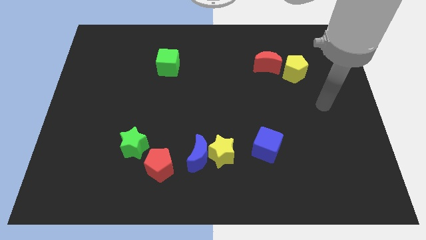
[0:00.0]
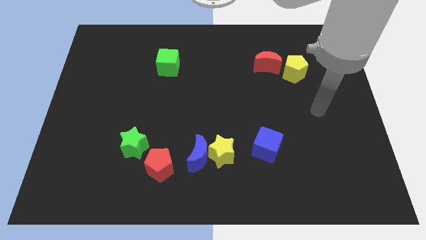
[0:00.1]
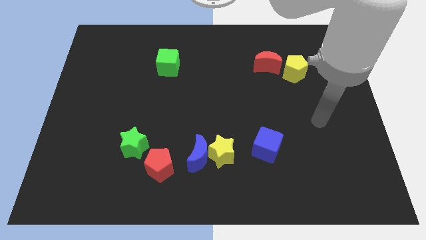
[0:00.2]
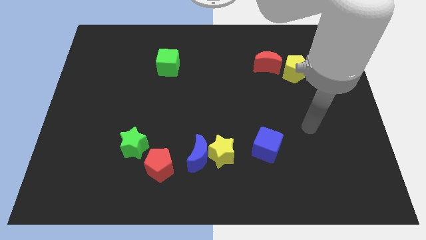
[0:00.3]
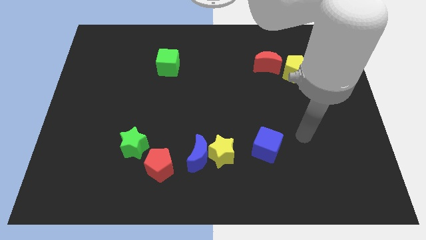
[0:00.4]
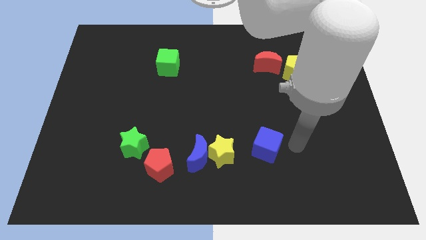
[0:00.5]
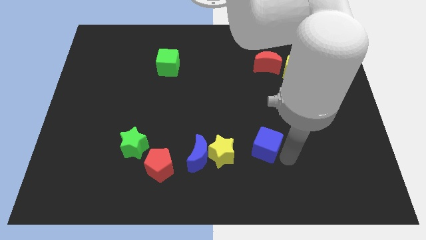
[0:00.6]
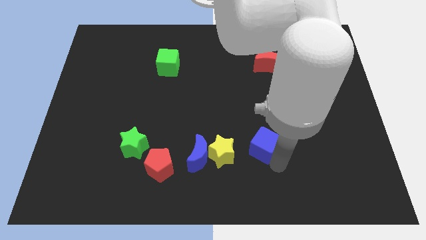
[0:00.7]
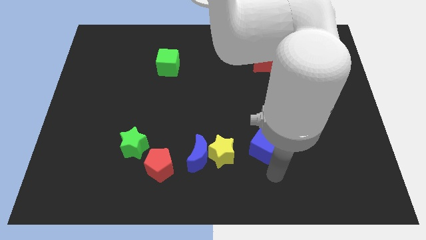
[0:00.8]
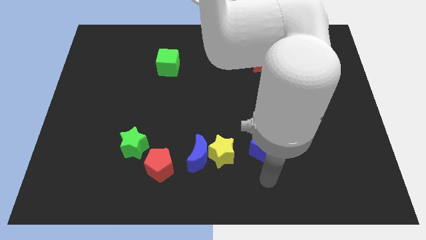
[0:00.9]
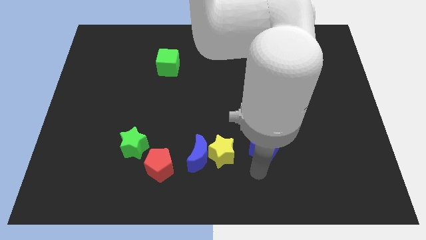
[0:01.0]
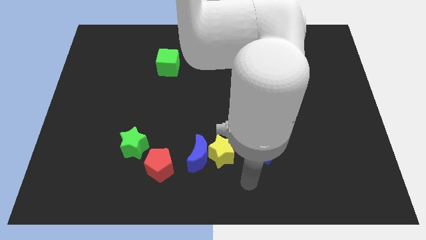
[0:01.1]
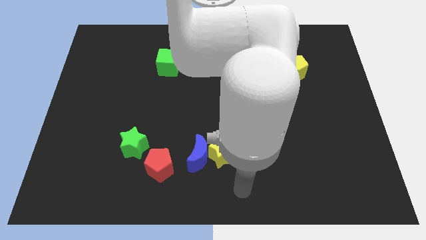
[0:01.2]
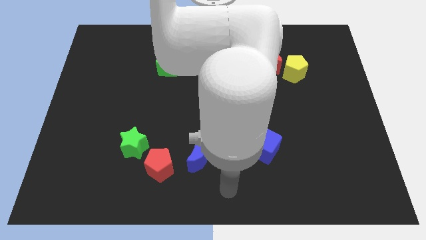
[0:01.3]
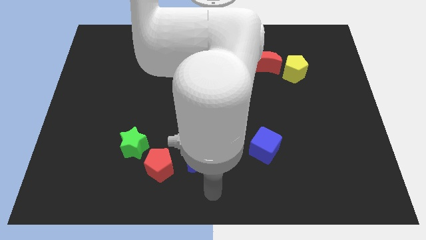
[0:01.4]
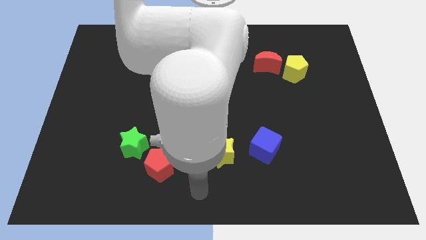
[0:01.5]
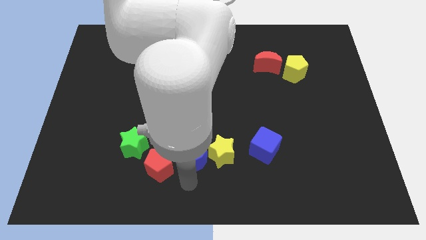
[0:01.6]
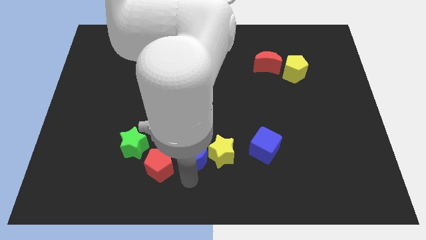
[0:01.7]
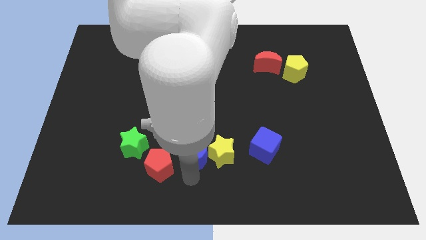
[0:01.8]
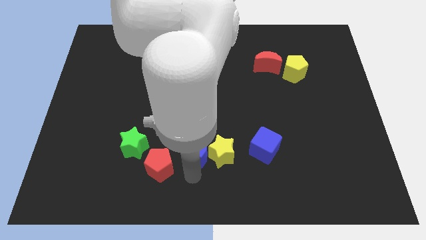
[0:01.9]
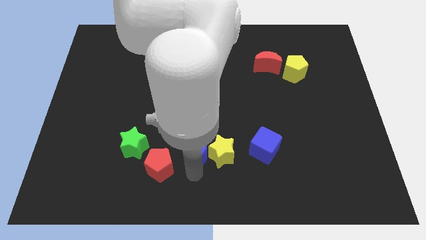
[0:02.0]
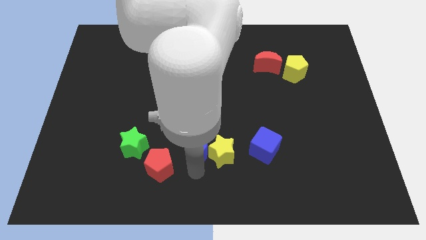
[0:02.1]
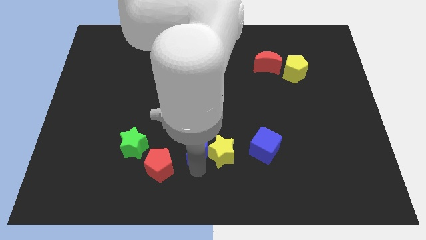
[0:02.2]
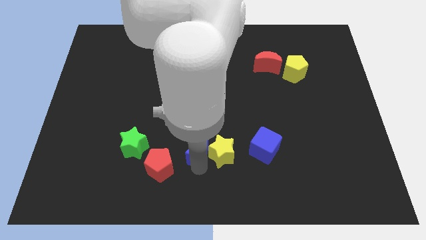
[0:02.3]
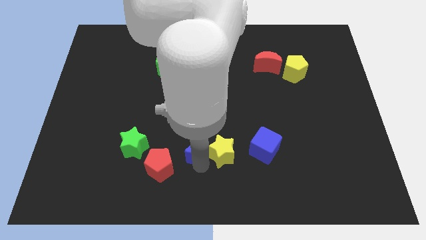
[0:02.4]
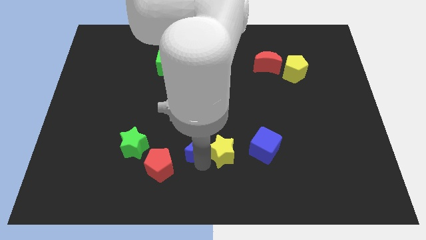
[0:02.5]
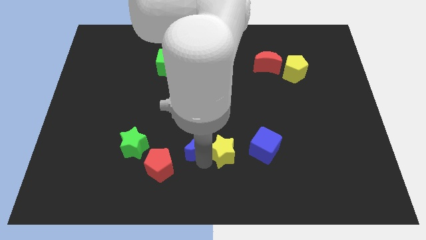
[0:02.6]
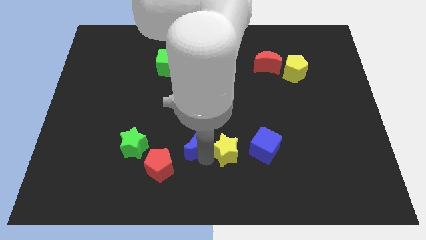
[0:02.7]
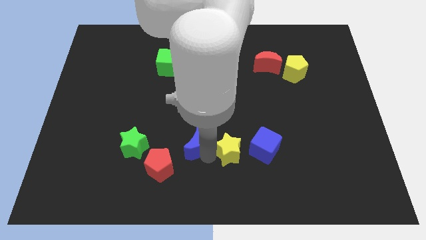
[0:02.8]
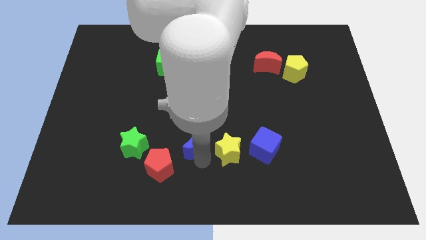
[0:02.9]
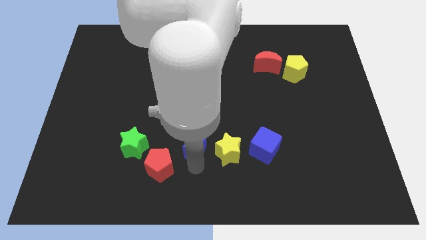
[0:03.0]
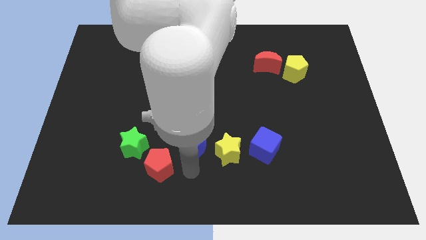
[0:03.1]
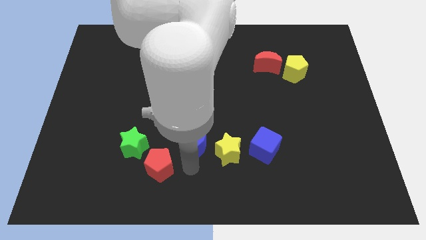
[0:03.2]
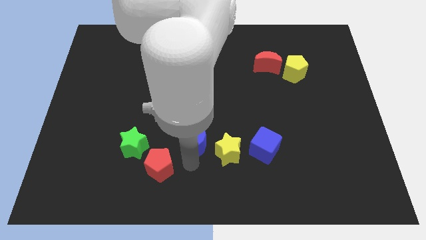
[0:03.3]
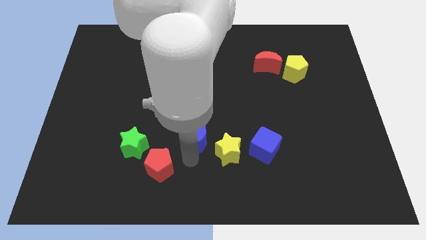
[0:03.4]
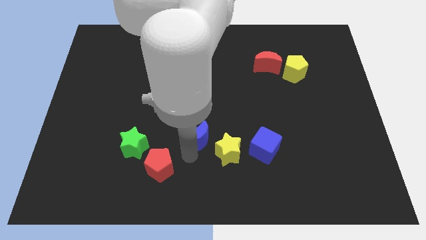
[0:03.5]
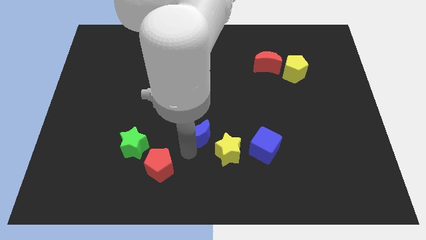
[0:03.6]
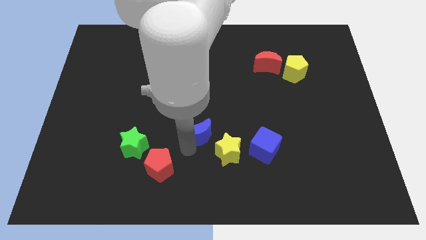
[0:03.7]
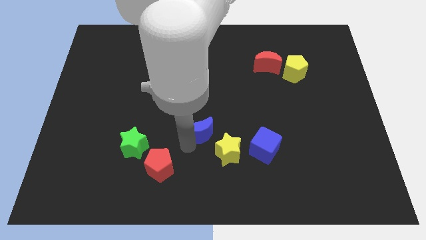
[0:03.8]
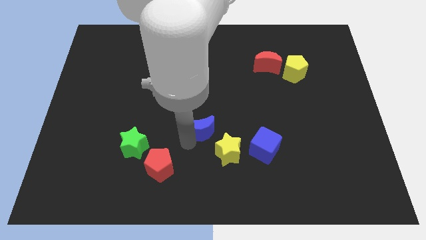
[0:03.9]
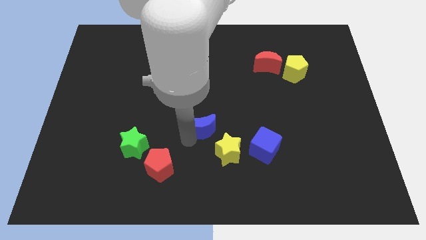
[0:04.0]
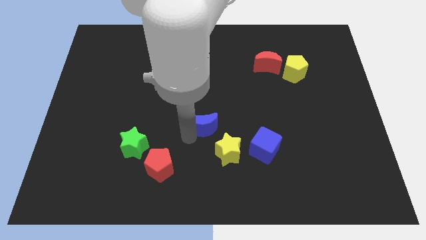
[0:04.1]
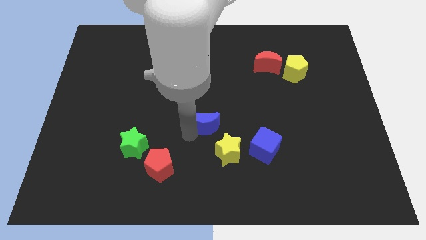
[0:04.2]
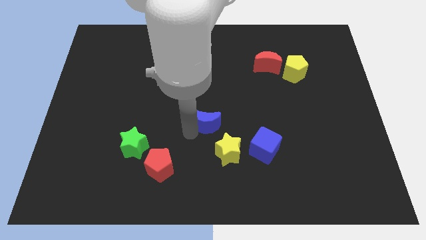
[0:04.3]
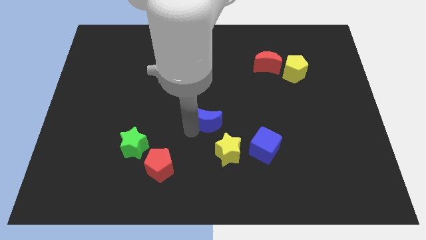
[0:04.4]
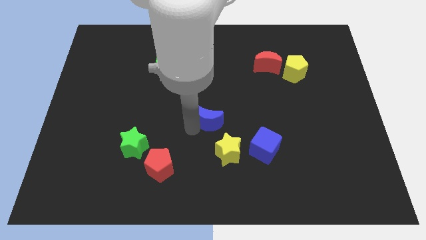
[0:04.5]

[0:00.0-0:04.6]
separate the blue moon from the yellow star and red pentagon

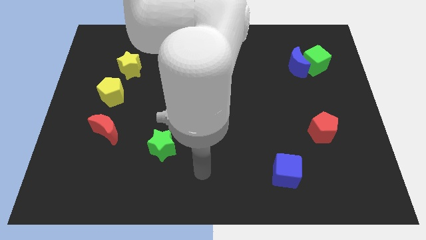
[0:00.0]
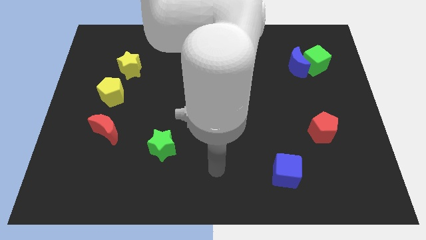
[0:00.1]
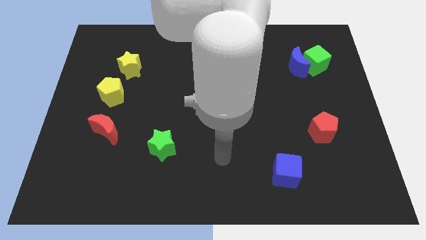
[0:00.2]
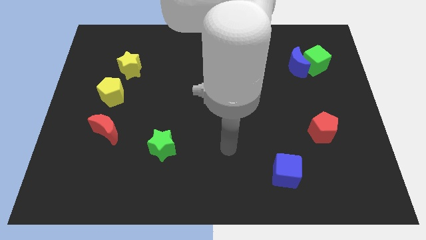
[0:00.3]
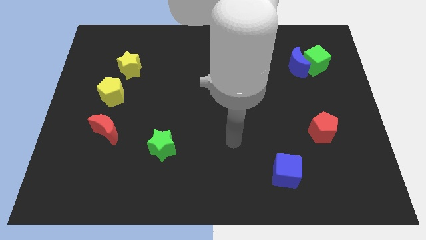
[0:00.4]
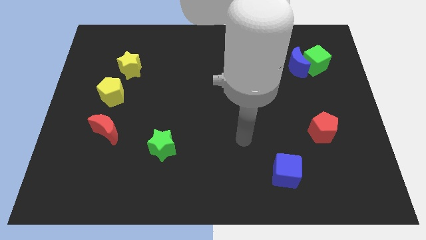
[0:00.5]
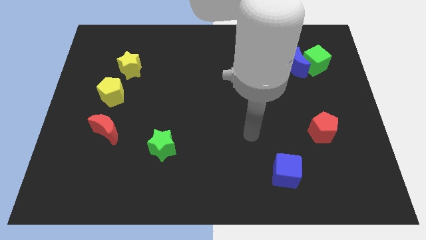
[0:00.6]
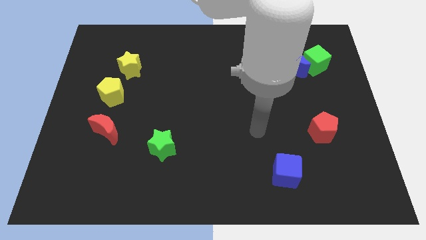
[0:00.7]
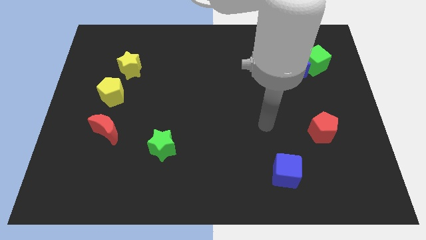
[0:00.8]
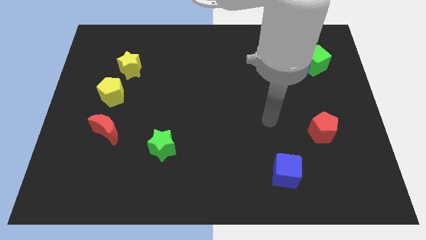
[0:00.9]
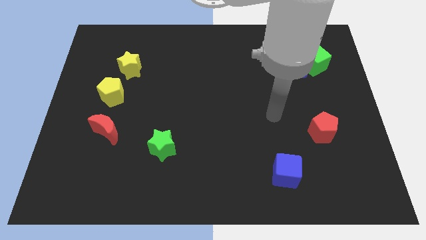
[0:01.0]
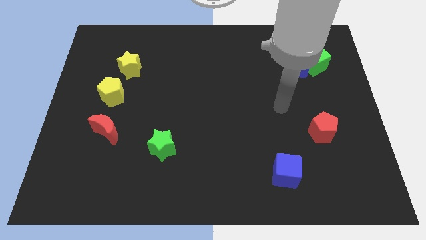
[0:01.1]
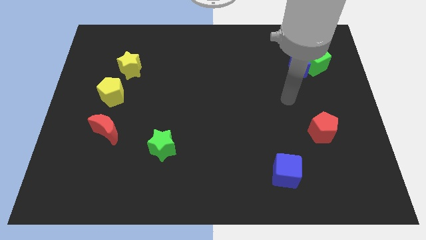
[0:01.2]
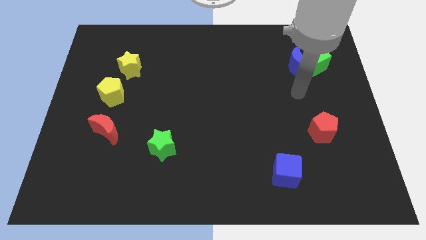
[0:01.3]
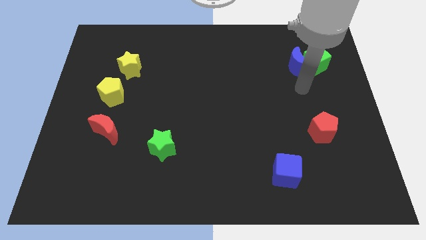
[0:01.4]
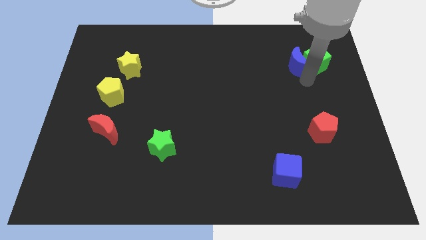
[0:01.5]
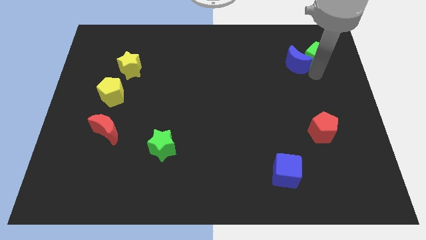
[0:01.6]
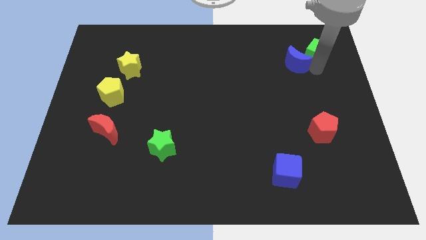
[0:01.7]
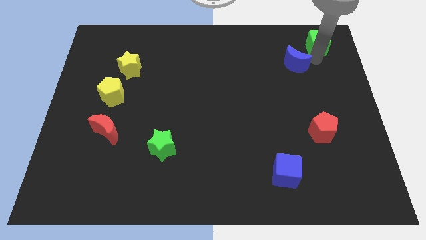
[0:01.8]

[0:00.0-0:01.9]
move the blue moon away from the green cube

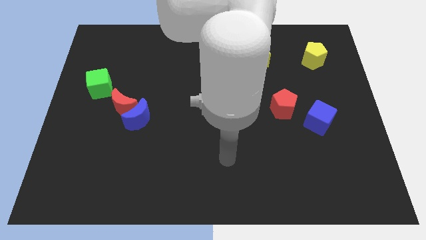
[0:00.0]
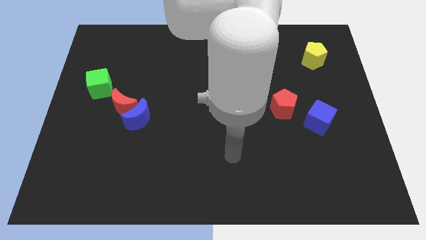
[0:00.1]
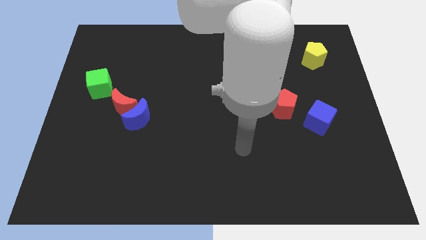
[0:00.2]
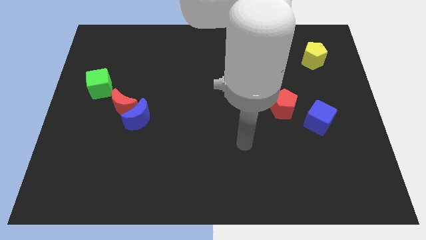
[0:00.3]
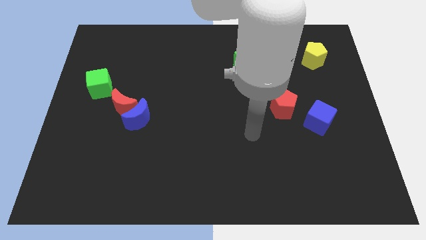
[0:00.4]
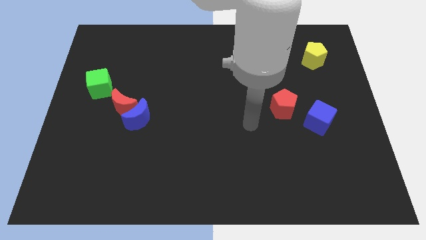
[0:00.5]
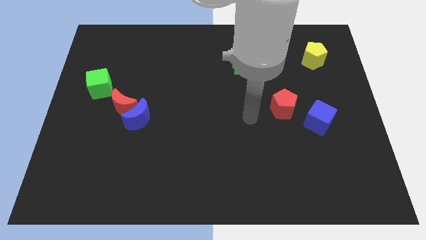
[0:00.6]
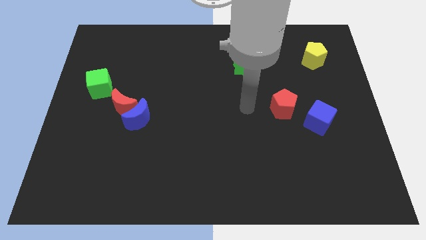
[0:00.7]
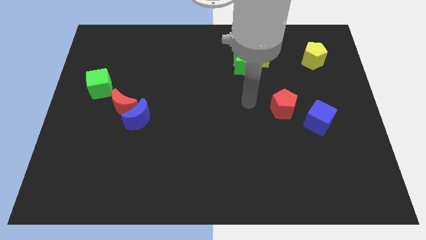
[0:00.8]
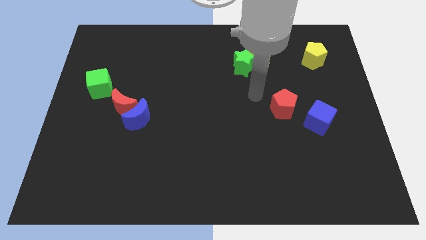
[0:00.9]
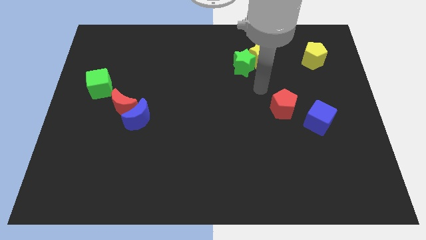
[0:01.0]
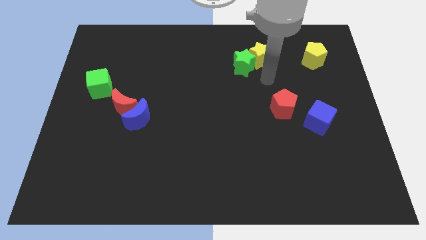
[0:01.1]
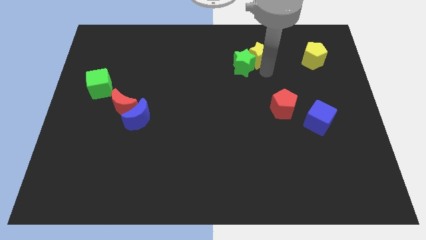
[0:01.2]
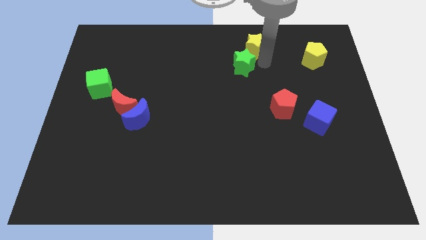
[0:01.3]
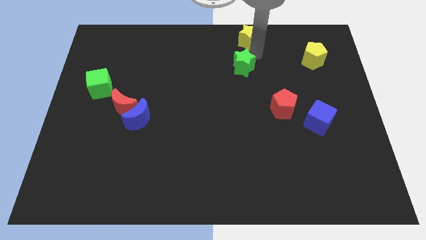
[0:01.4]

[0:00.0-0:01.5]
move the green star away from the yellow star

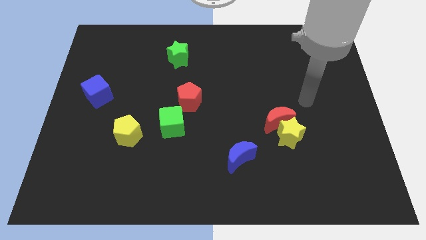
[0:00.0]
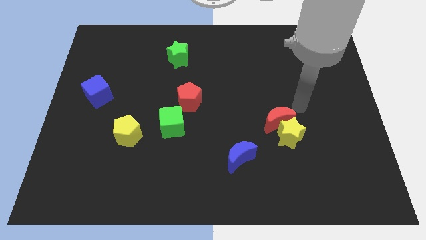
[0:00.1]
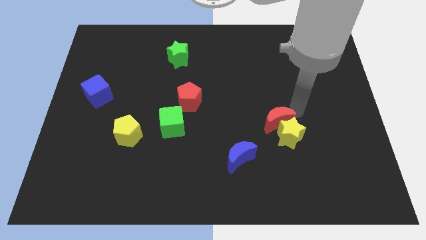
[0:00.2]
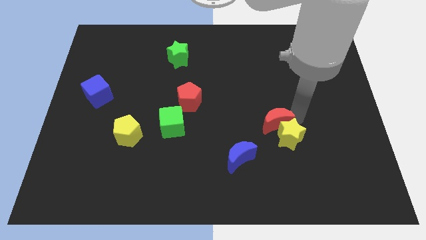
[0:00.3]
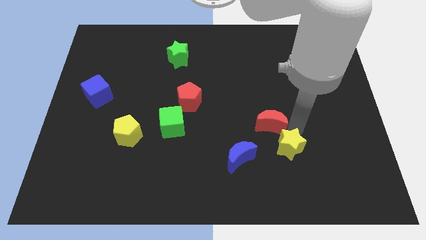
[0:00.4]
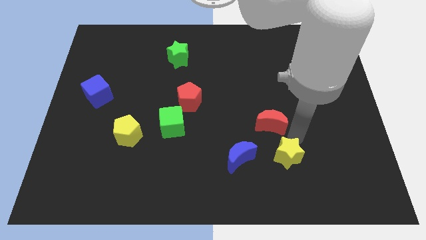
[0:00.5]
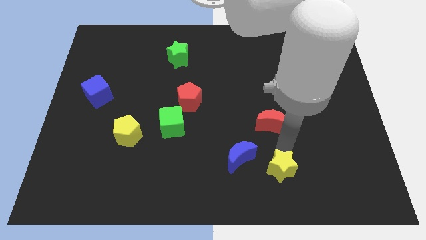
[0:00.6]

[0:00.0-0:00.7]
move the red moon away from the yellow star

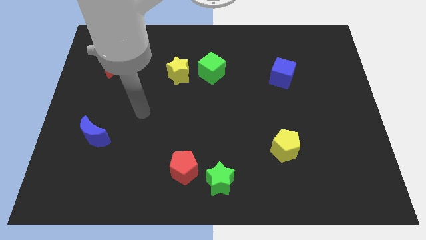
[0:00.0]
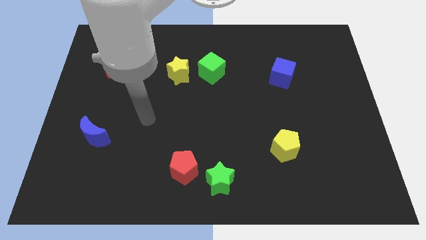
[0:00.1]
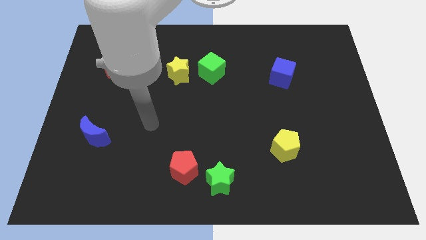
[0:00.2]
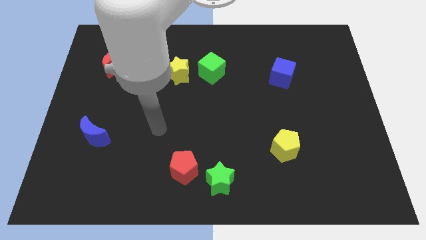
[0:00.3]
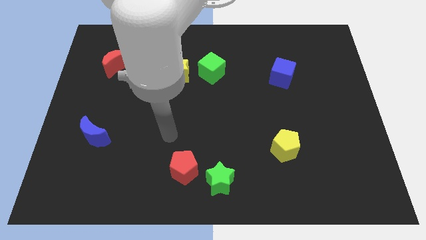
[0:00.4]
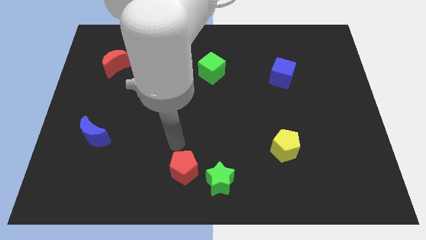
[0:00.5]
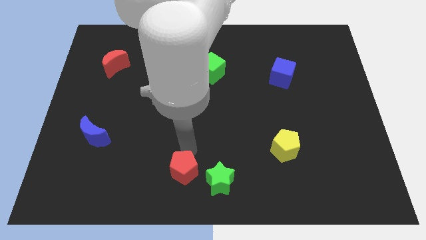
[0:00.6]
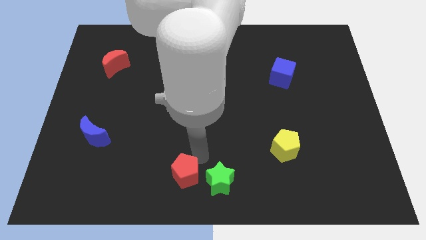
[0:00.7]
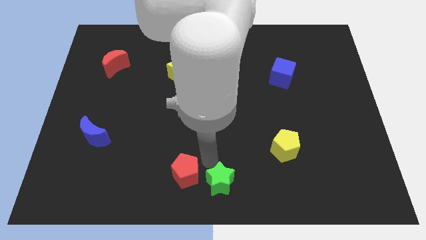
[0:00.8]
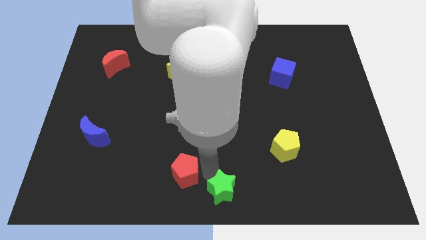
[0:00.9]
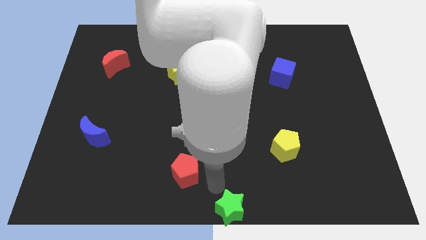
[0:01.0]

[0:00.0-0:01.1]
separate the red pentagon from the green star
